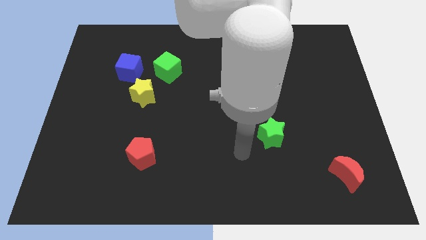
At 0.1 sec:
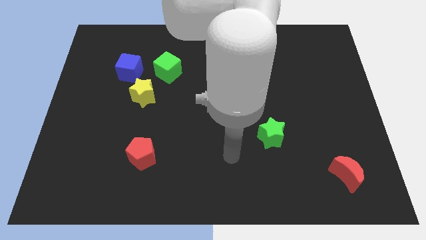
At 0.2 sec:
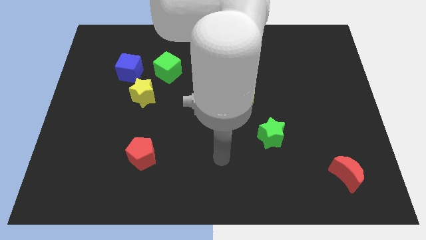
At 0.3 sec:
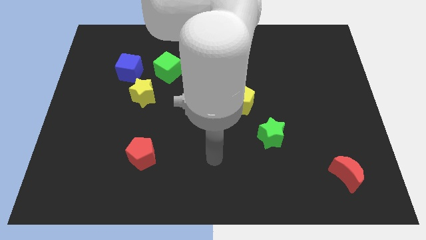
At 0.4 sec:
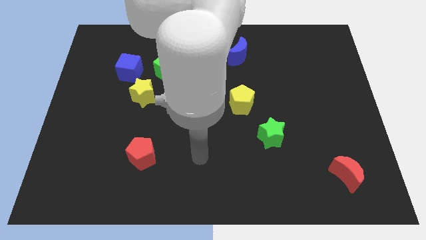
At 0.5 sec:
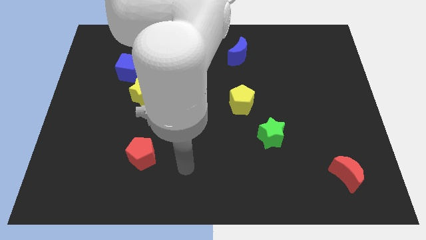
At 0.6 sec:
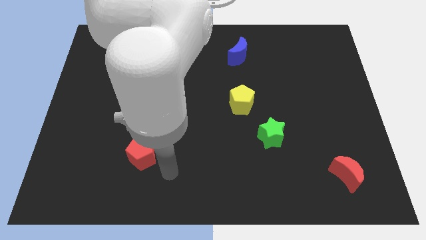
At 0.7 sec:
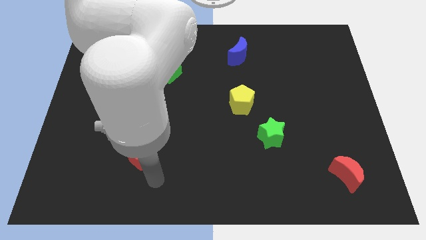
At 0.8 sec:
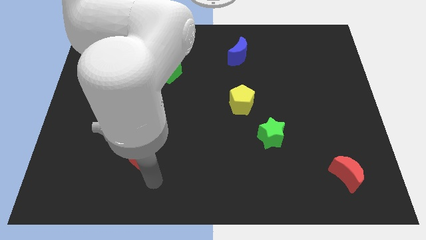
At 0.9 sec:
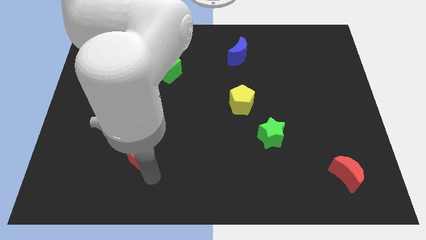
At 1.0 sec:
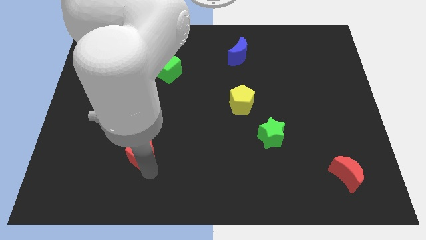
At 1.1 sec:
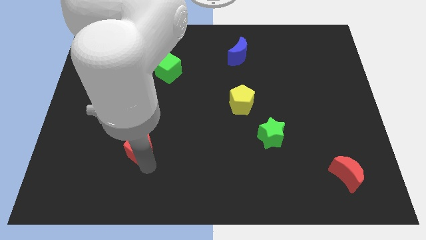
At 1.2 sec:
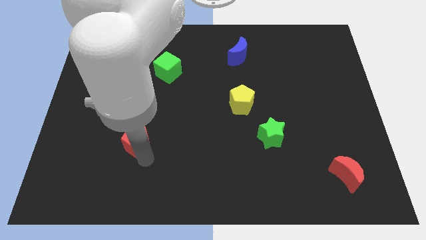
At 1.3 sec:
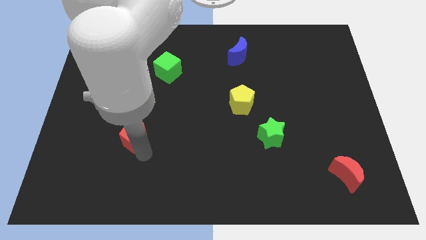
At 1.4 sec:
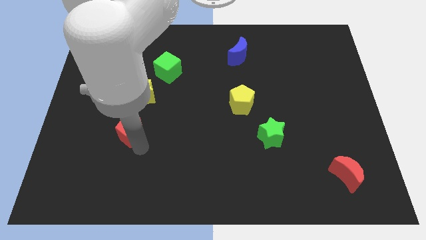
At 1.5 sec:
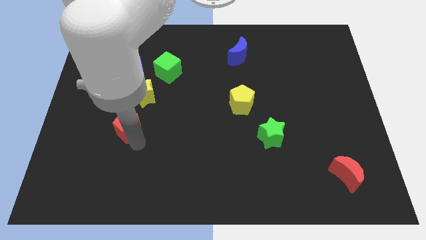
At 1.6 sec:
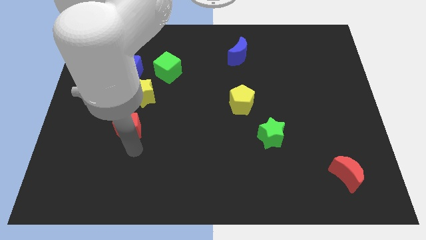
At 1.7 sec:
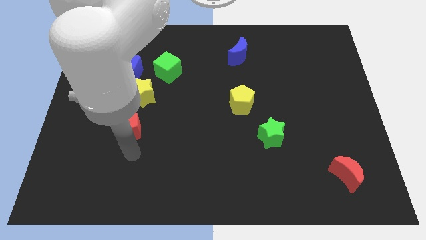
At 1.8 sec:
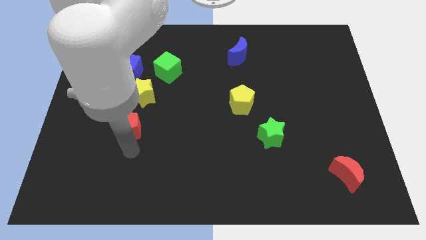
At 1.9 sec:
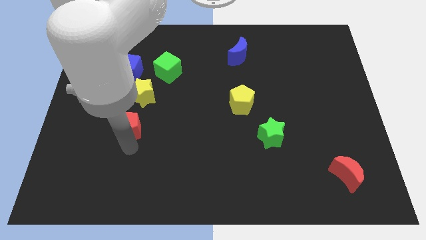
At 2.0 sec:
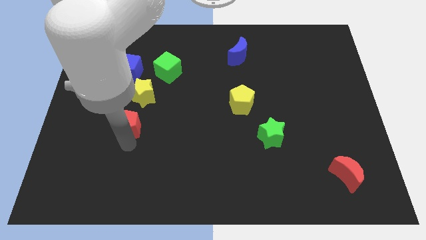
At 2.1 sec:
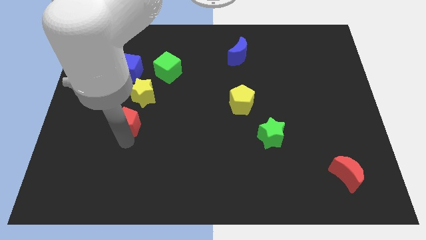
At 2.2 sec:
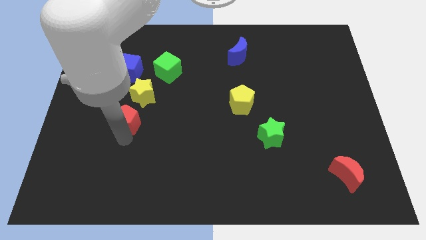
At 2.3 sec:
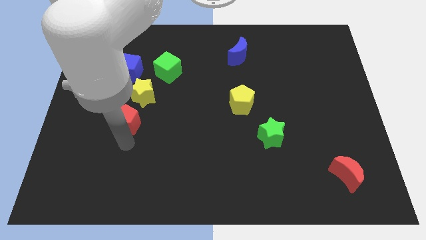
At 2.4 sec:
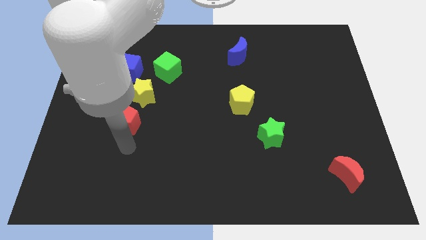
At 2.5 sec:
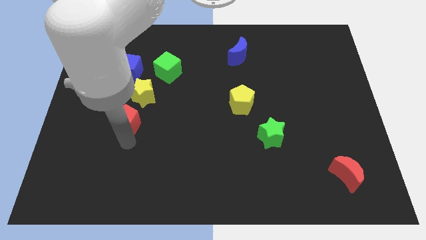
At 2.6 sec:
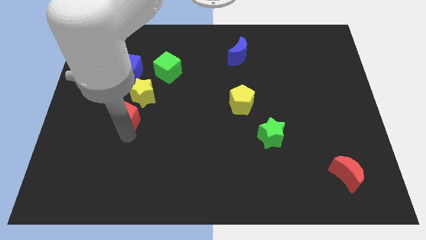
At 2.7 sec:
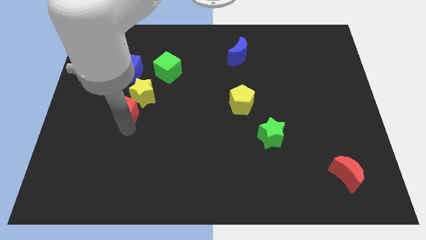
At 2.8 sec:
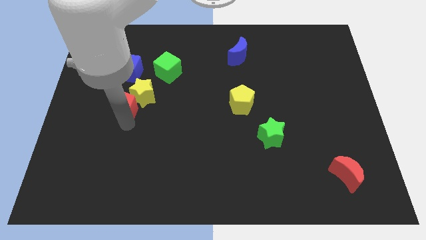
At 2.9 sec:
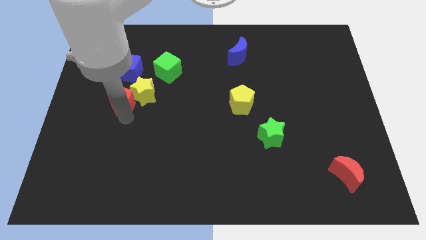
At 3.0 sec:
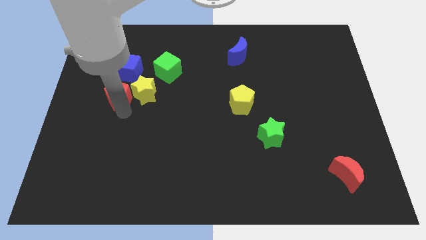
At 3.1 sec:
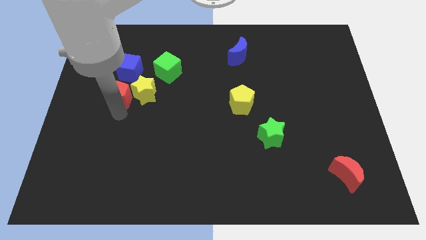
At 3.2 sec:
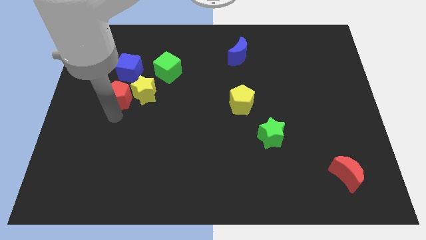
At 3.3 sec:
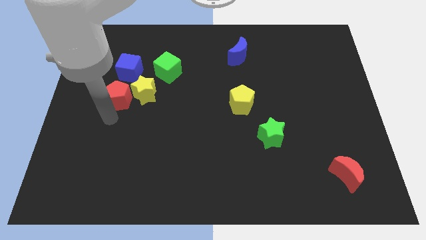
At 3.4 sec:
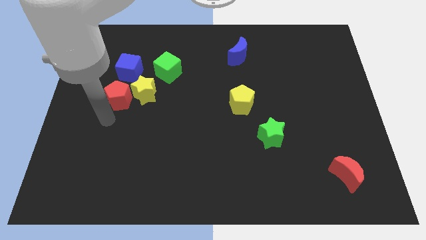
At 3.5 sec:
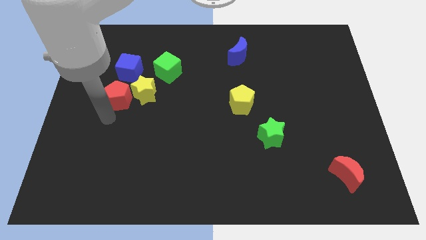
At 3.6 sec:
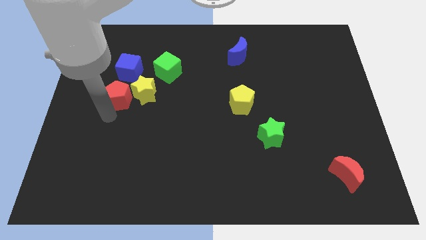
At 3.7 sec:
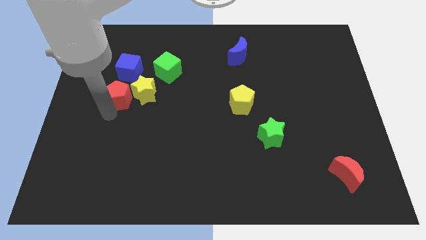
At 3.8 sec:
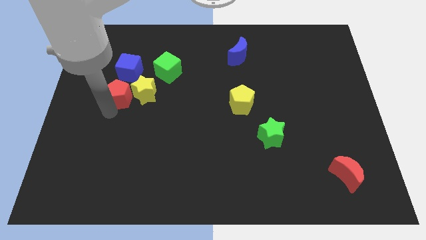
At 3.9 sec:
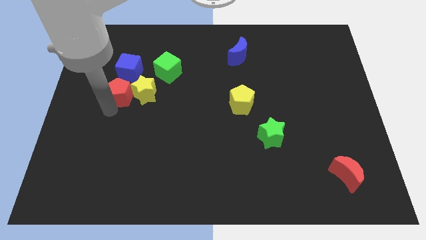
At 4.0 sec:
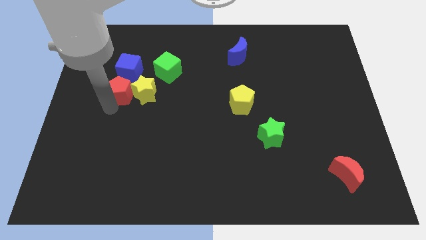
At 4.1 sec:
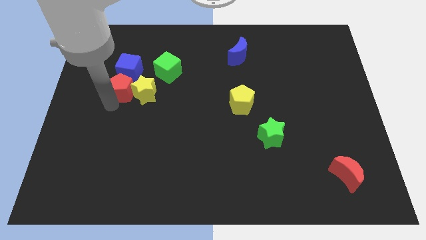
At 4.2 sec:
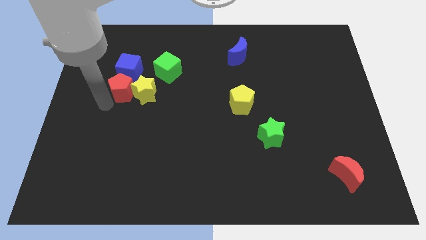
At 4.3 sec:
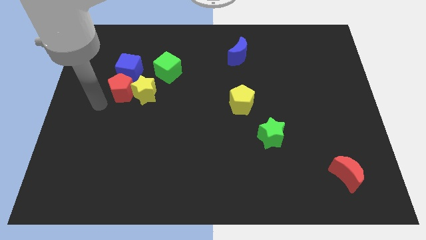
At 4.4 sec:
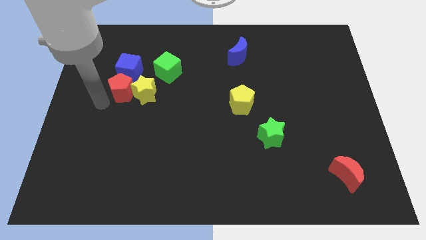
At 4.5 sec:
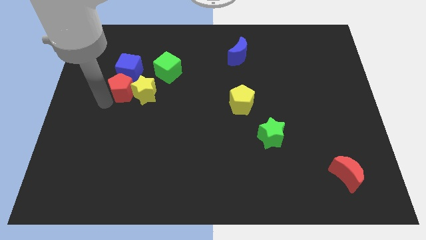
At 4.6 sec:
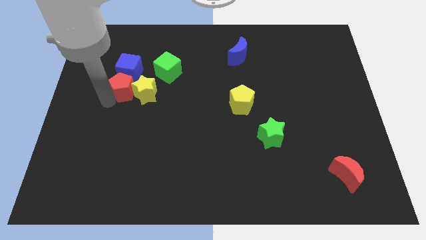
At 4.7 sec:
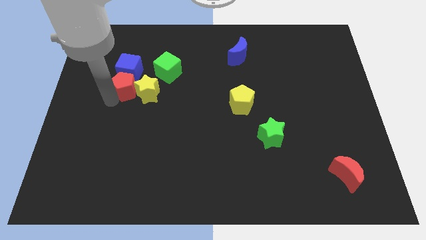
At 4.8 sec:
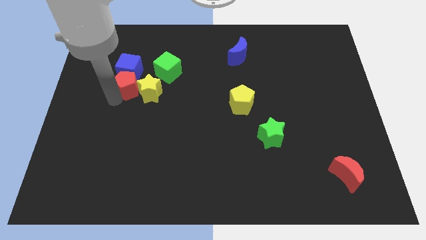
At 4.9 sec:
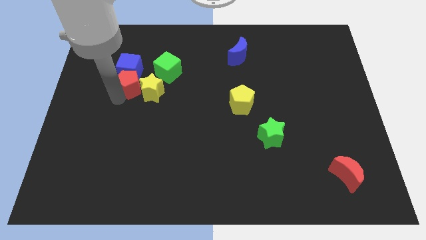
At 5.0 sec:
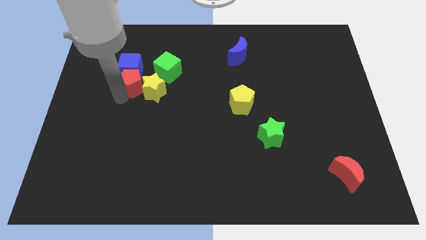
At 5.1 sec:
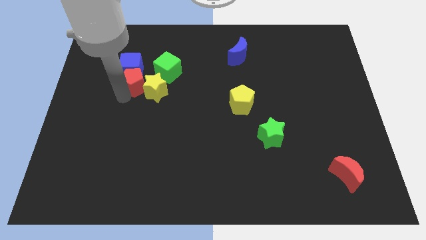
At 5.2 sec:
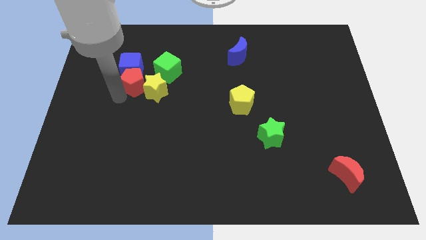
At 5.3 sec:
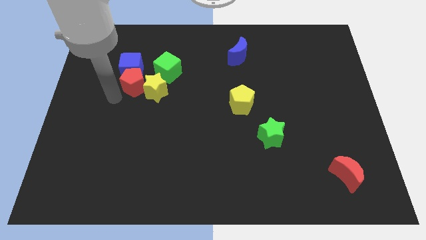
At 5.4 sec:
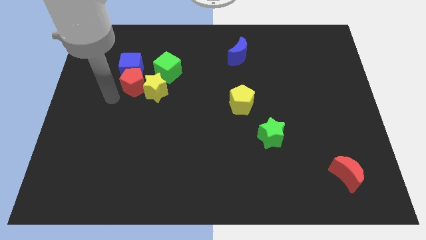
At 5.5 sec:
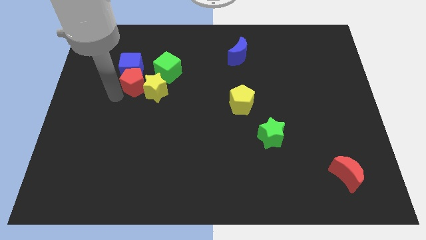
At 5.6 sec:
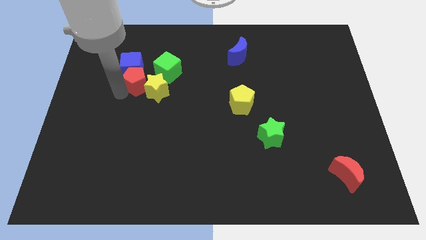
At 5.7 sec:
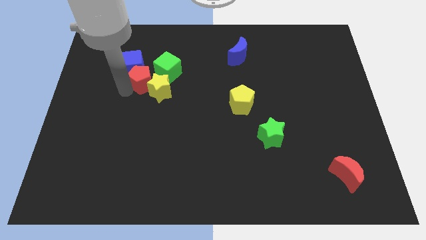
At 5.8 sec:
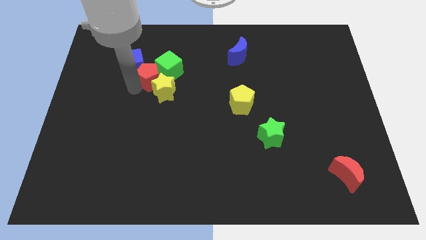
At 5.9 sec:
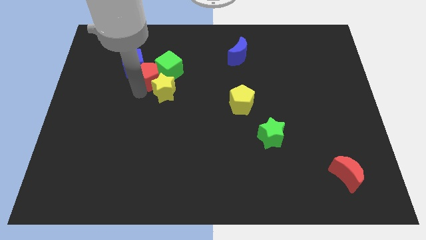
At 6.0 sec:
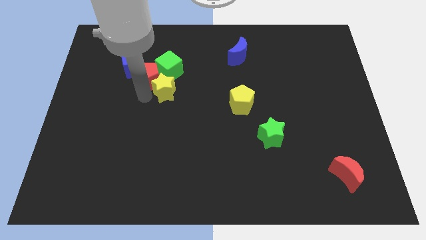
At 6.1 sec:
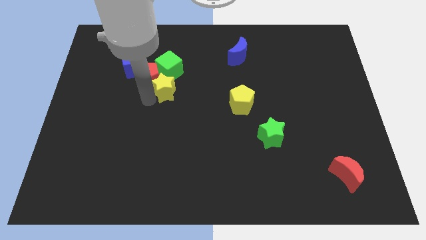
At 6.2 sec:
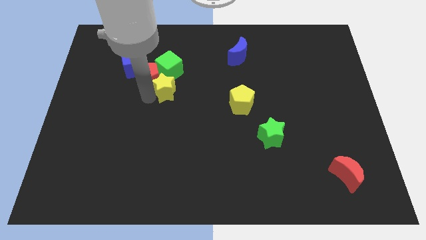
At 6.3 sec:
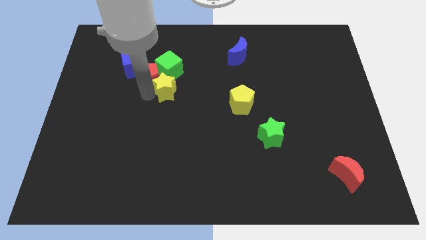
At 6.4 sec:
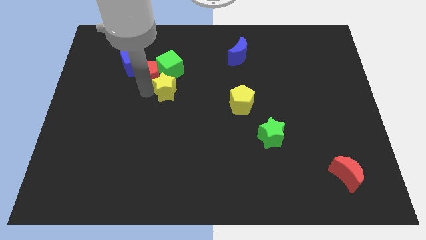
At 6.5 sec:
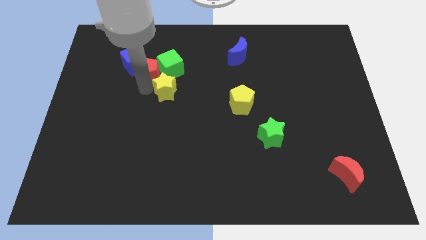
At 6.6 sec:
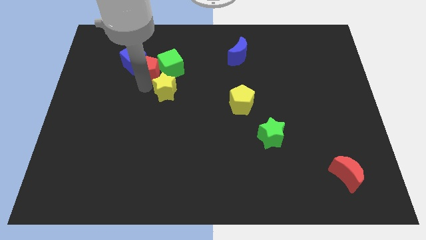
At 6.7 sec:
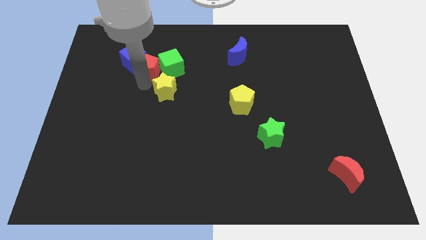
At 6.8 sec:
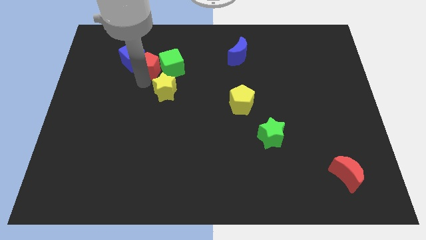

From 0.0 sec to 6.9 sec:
move the red pentagon to the top left of the green cube
